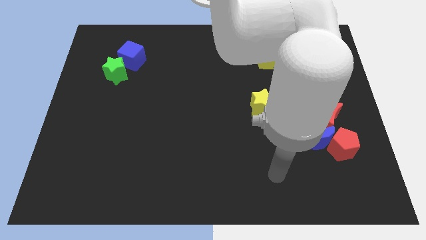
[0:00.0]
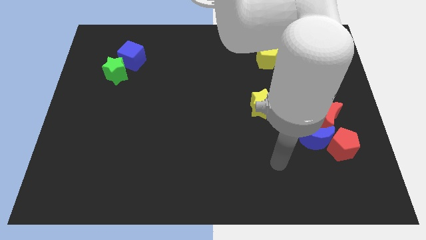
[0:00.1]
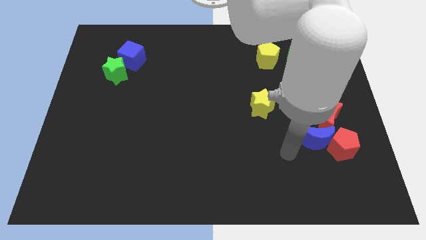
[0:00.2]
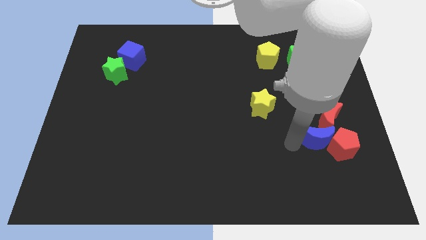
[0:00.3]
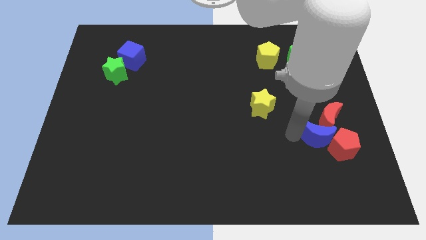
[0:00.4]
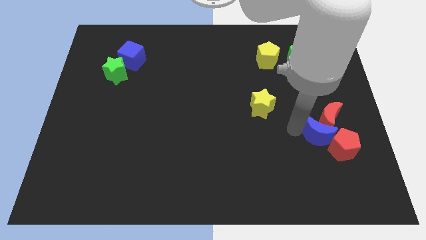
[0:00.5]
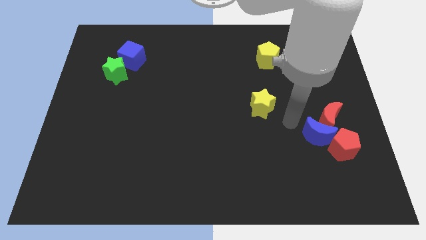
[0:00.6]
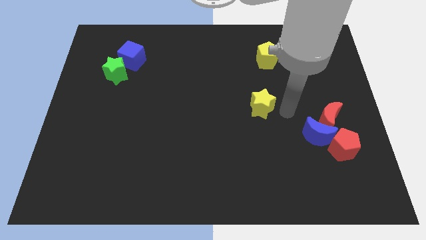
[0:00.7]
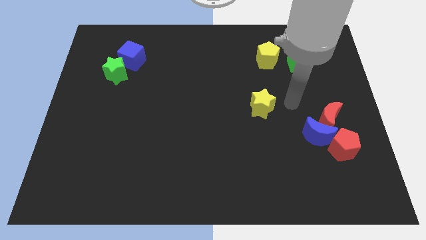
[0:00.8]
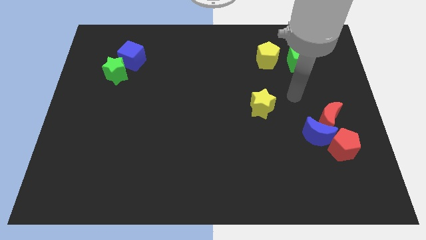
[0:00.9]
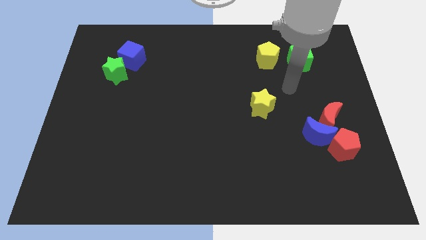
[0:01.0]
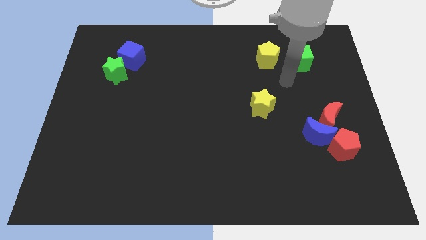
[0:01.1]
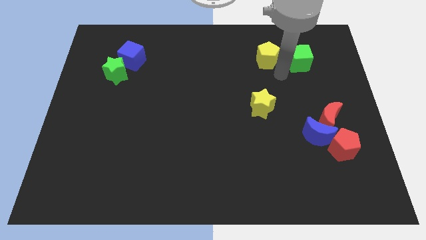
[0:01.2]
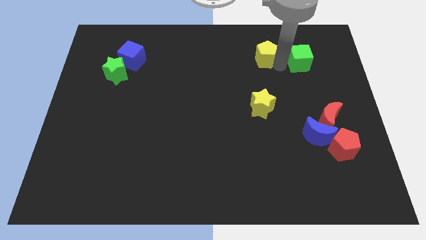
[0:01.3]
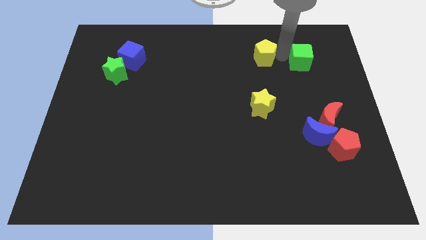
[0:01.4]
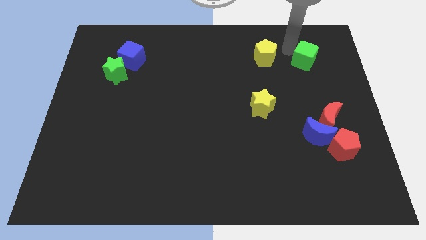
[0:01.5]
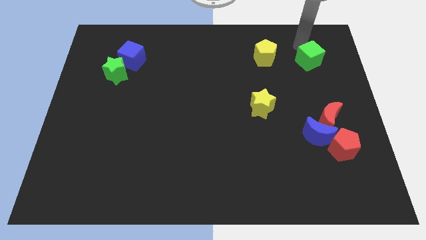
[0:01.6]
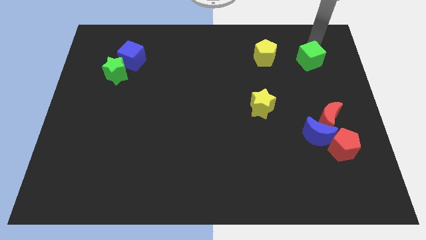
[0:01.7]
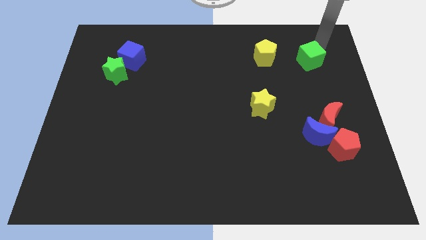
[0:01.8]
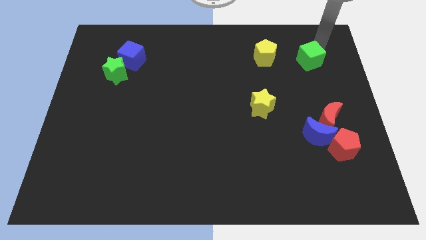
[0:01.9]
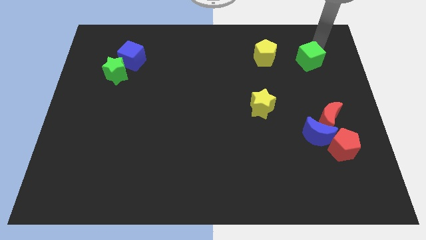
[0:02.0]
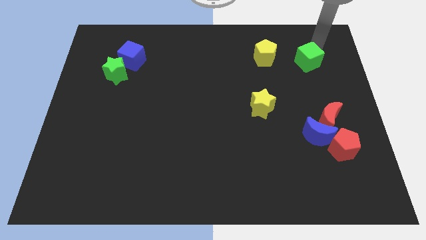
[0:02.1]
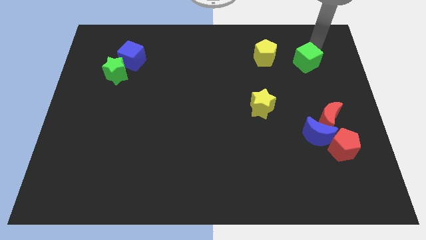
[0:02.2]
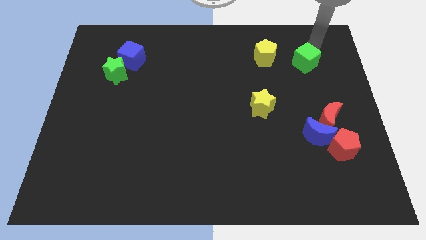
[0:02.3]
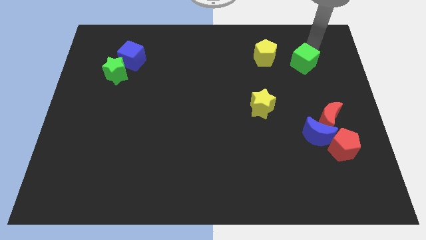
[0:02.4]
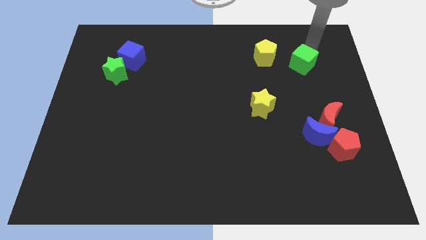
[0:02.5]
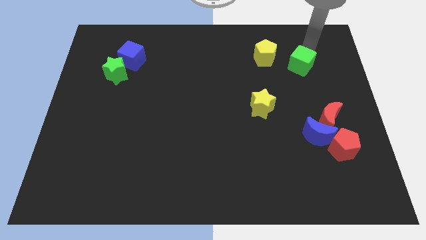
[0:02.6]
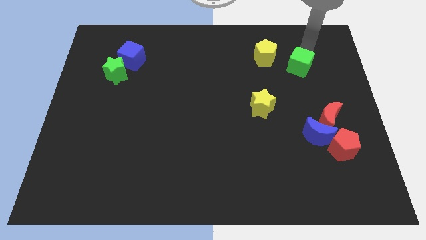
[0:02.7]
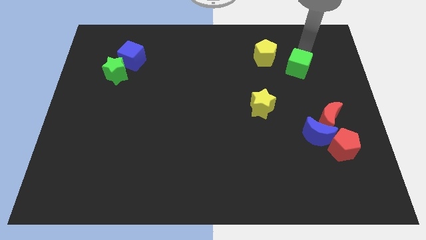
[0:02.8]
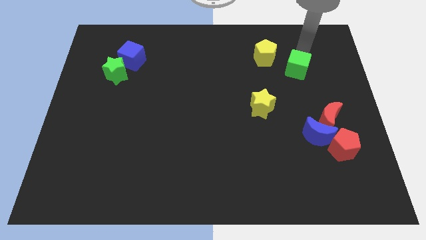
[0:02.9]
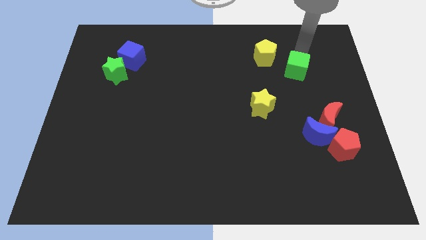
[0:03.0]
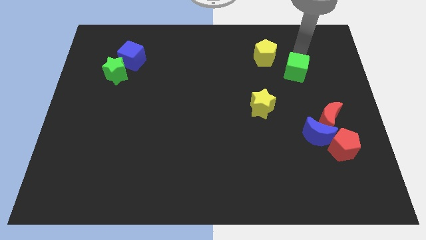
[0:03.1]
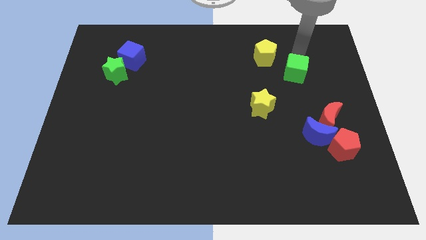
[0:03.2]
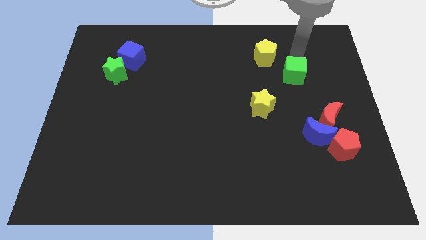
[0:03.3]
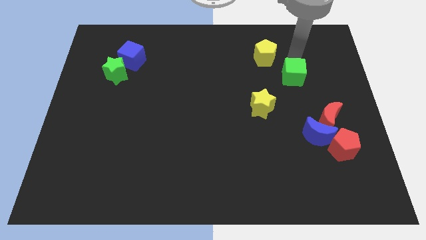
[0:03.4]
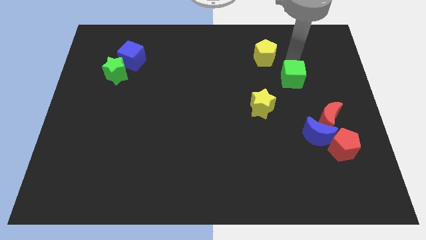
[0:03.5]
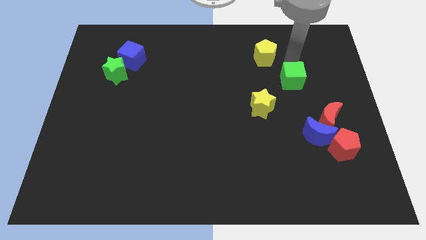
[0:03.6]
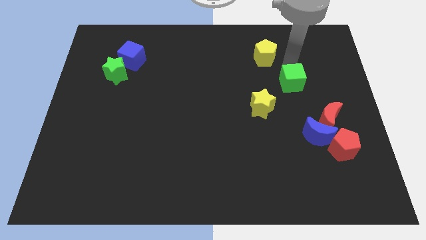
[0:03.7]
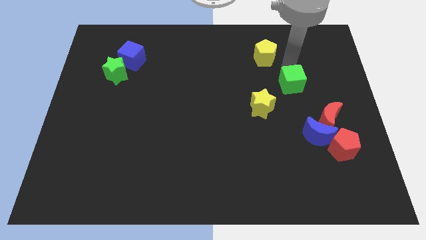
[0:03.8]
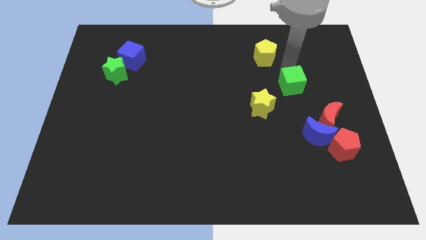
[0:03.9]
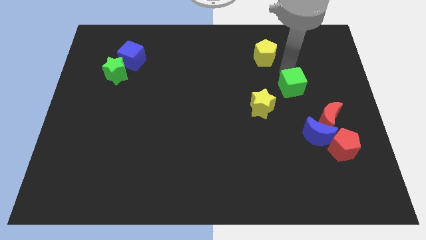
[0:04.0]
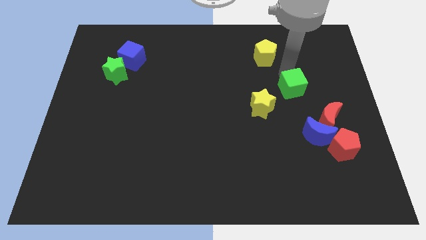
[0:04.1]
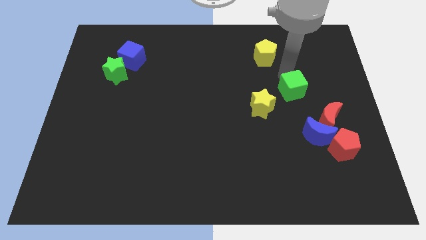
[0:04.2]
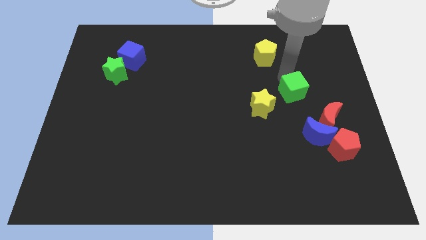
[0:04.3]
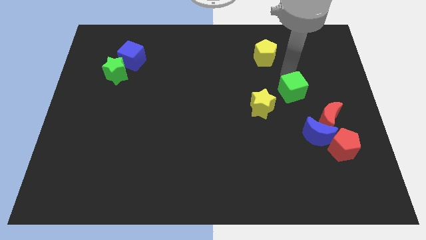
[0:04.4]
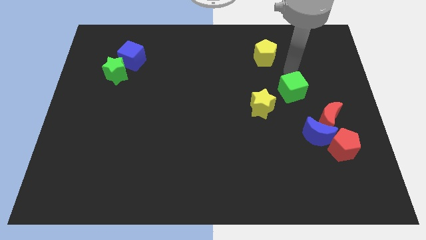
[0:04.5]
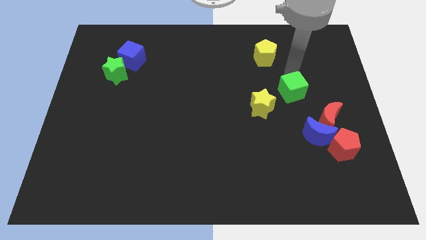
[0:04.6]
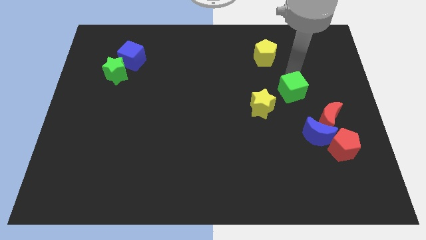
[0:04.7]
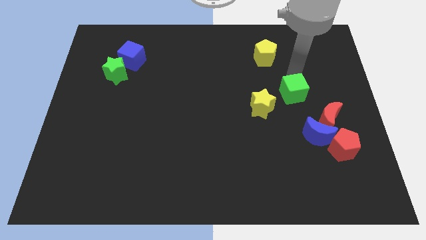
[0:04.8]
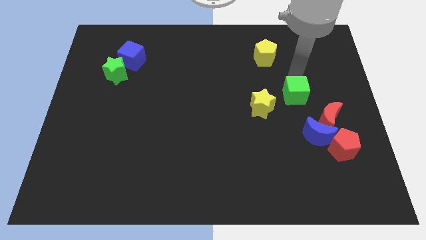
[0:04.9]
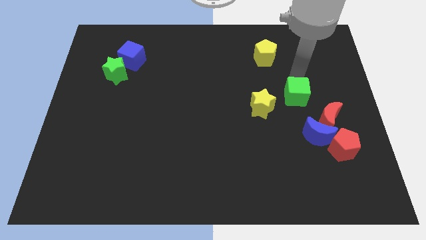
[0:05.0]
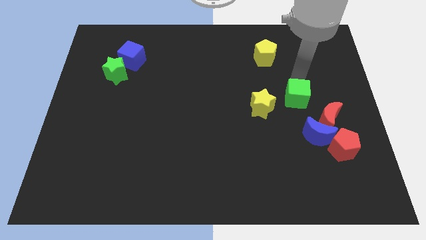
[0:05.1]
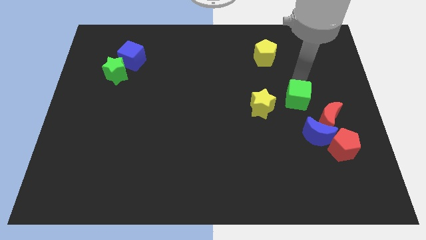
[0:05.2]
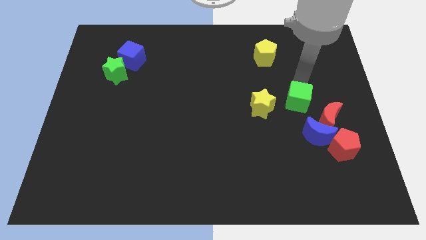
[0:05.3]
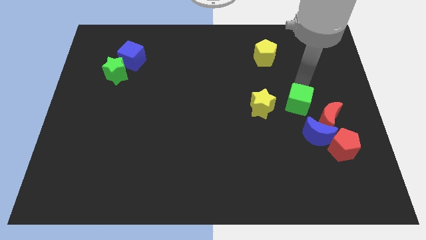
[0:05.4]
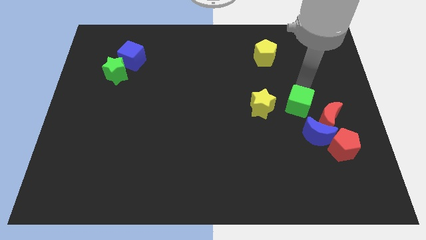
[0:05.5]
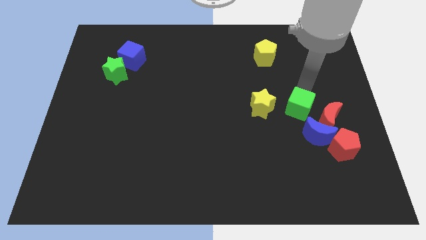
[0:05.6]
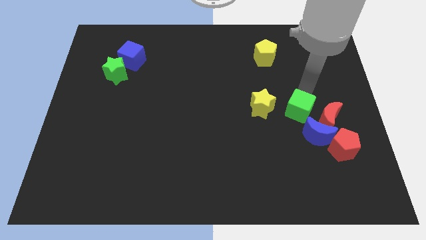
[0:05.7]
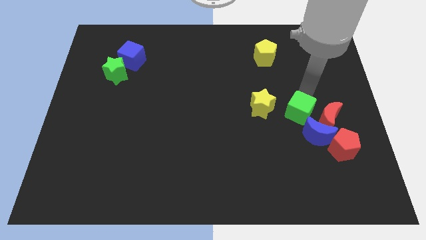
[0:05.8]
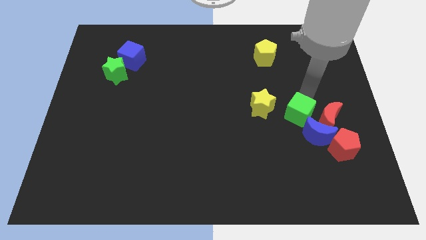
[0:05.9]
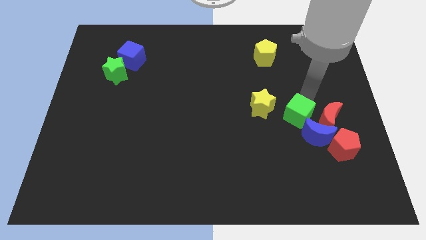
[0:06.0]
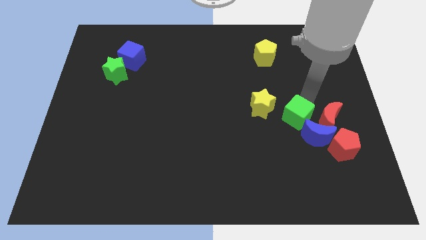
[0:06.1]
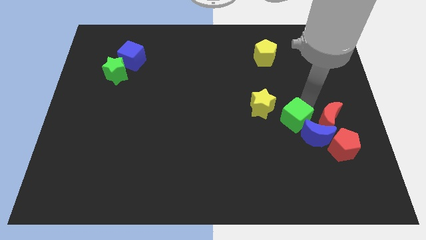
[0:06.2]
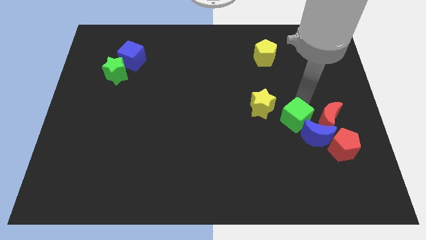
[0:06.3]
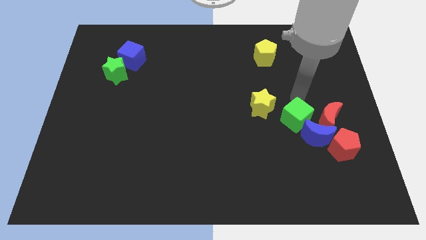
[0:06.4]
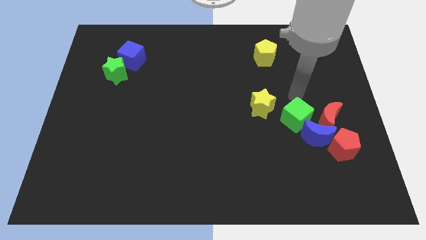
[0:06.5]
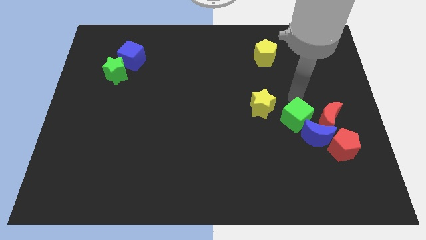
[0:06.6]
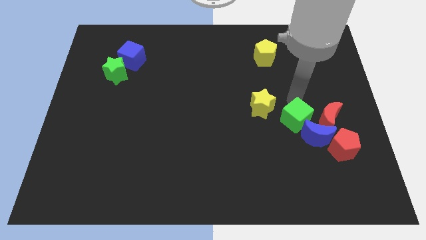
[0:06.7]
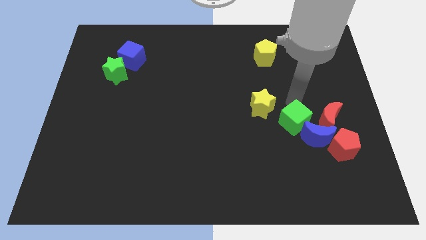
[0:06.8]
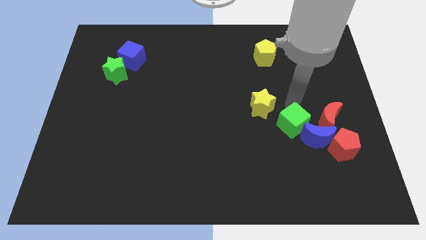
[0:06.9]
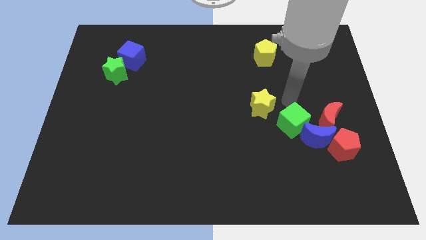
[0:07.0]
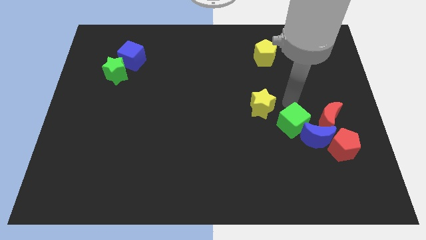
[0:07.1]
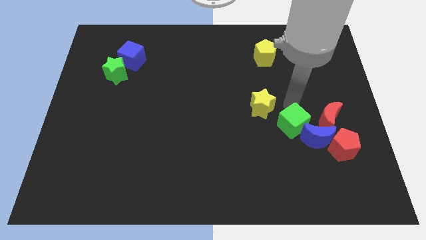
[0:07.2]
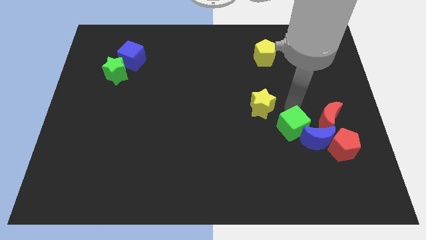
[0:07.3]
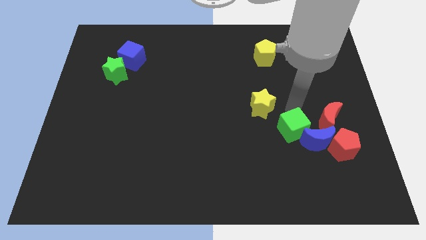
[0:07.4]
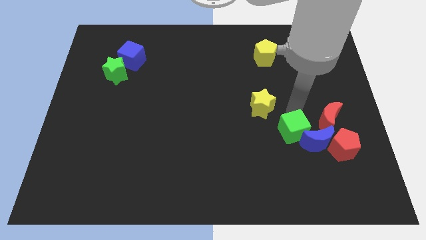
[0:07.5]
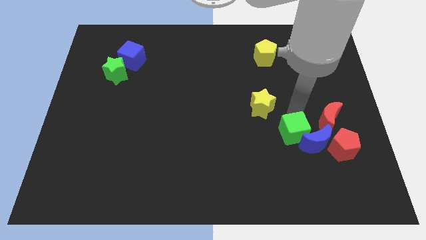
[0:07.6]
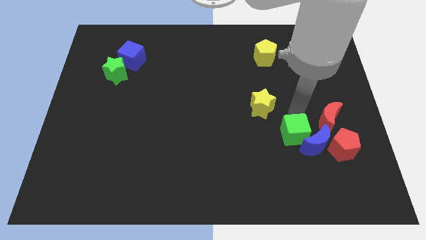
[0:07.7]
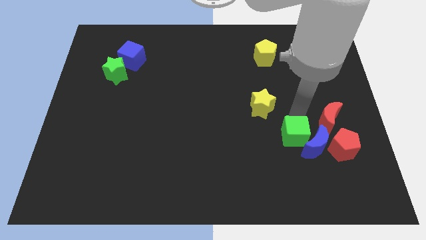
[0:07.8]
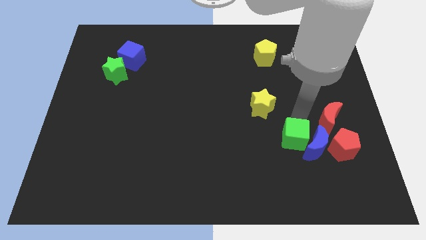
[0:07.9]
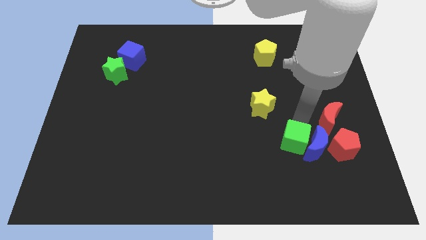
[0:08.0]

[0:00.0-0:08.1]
slide the green cube diagonally down and to the left of the blue moon
